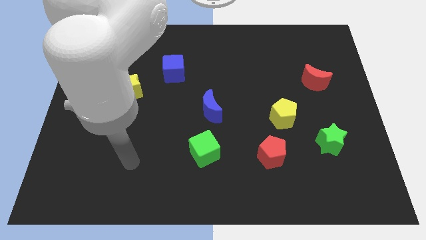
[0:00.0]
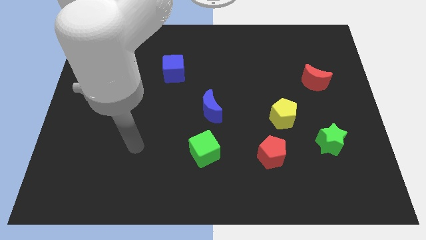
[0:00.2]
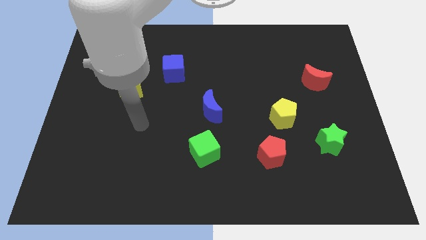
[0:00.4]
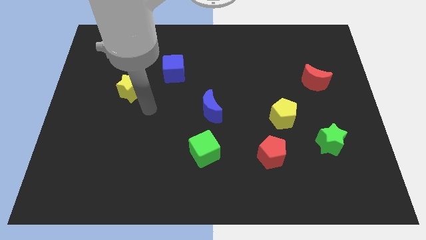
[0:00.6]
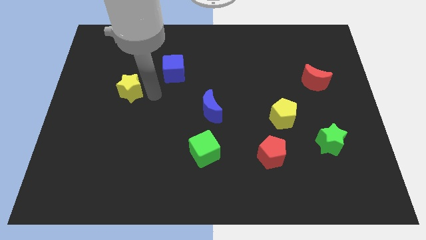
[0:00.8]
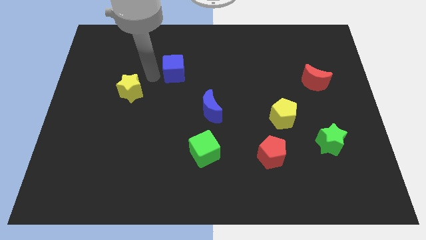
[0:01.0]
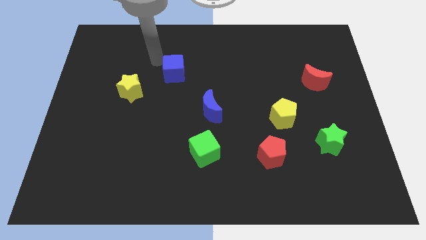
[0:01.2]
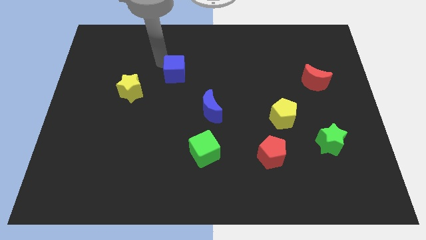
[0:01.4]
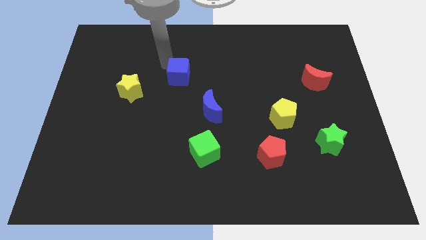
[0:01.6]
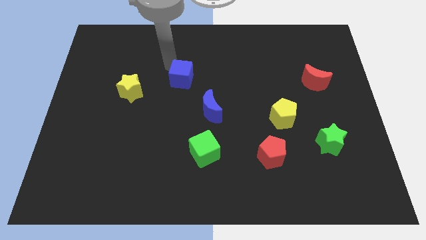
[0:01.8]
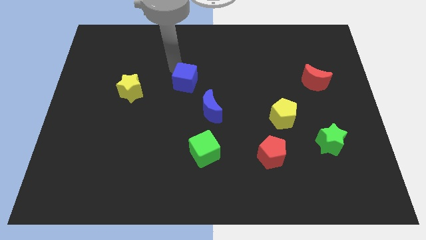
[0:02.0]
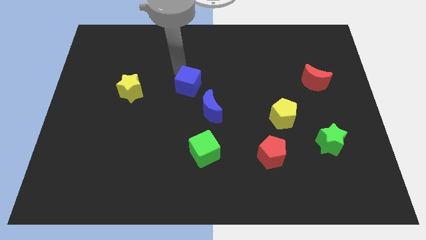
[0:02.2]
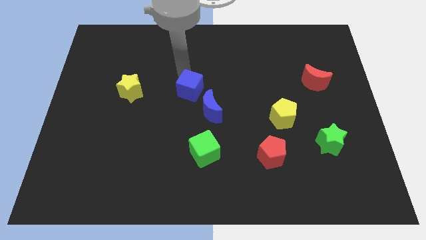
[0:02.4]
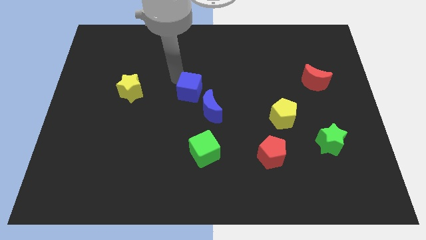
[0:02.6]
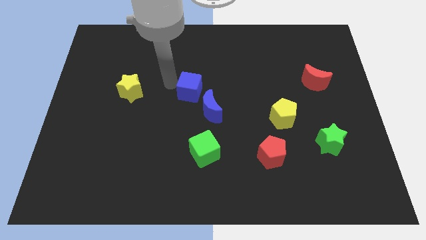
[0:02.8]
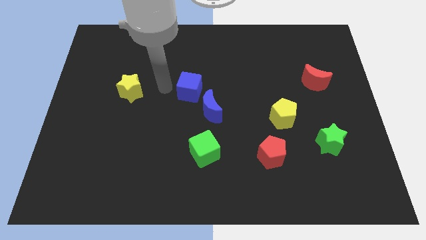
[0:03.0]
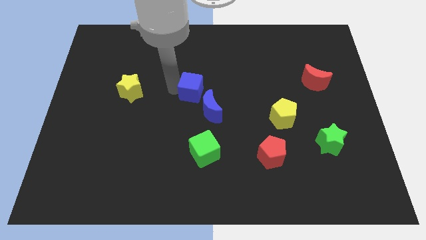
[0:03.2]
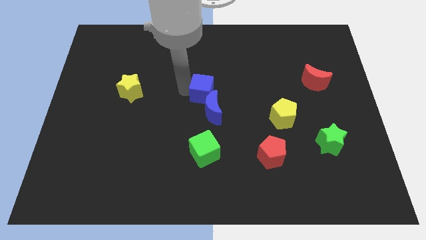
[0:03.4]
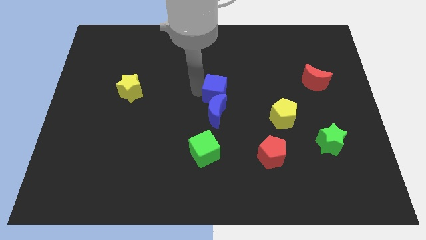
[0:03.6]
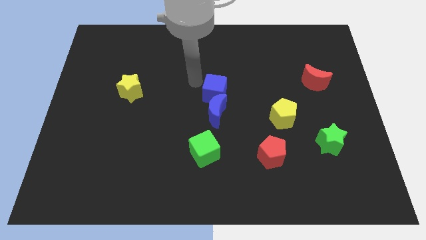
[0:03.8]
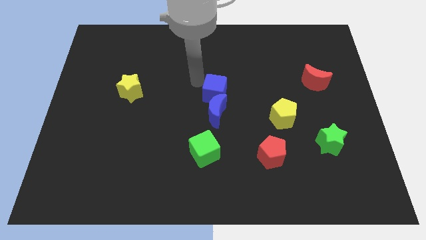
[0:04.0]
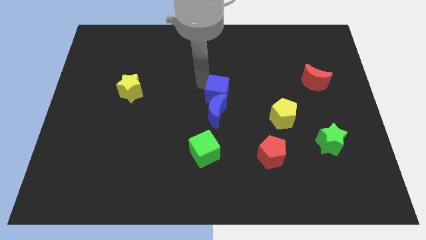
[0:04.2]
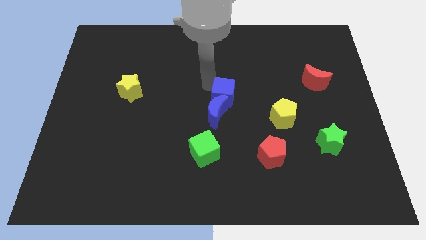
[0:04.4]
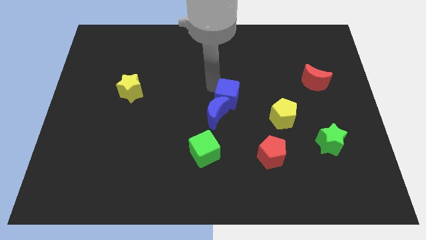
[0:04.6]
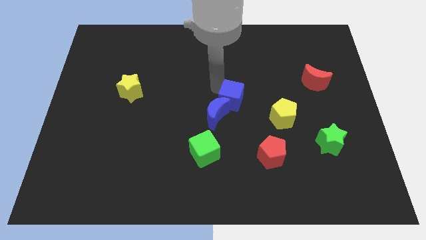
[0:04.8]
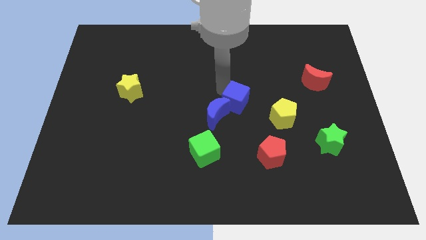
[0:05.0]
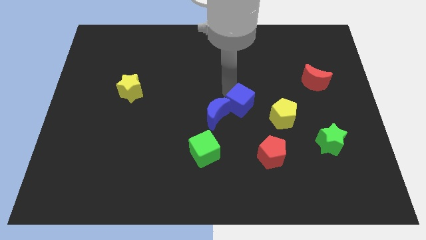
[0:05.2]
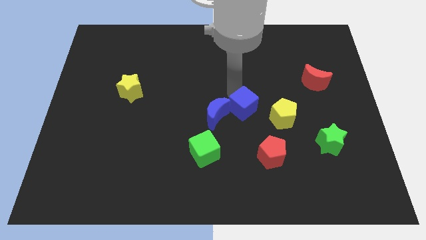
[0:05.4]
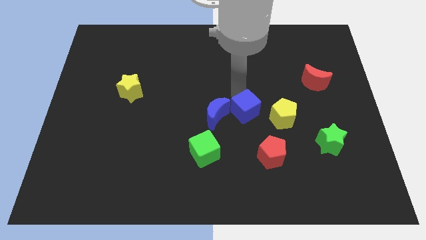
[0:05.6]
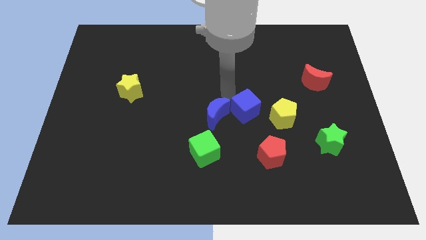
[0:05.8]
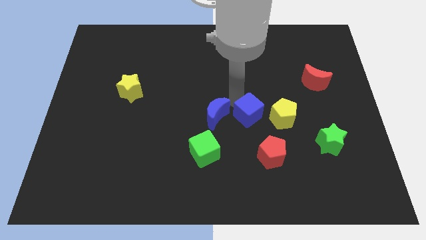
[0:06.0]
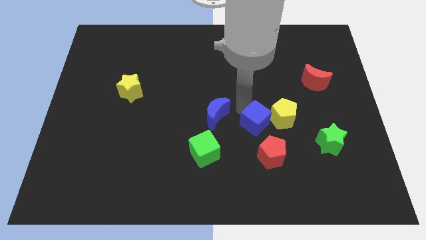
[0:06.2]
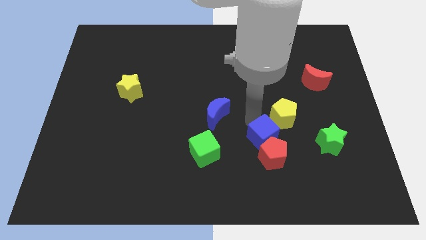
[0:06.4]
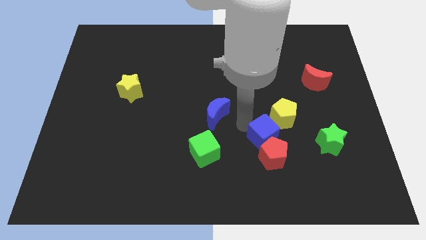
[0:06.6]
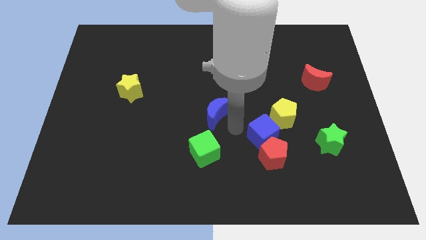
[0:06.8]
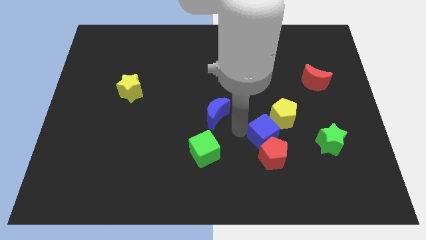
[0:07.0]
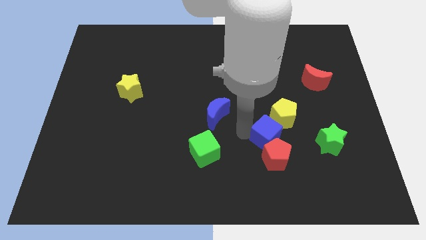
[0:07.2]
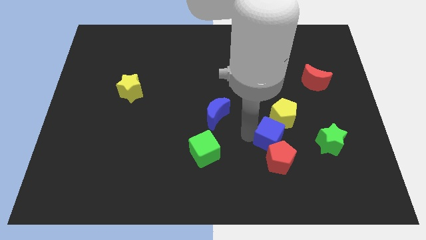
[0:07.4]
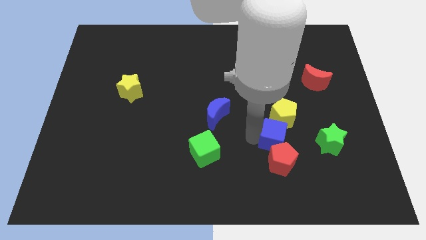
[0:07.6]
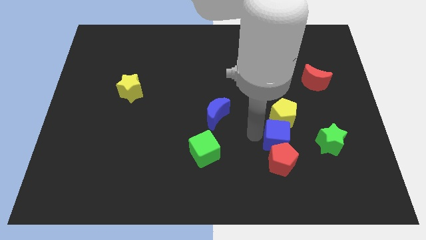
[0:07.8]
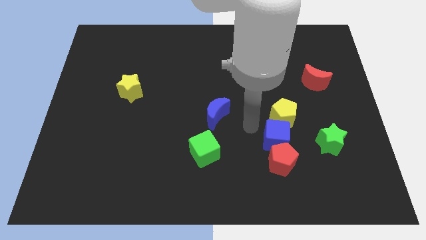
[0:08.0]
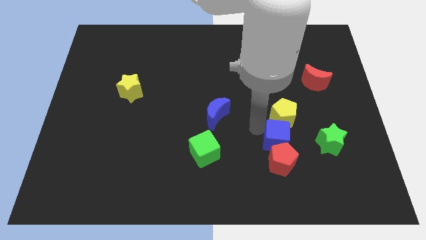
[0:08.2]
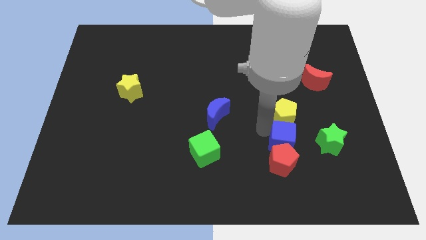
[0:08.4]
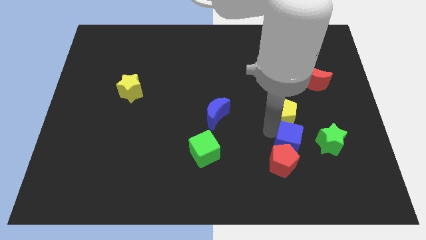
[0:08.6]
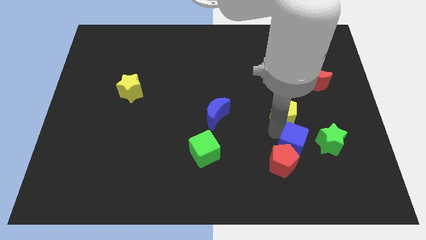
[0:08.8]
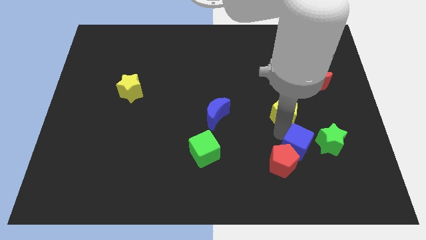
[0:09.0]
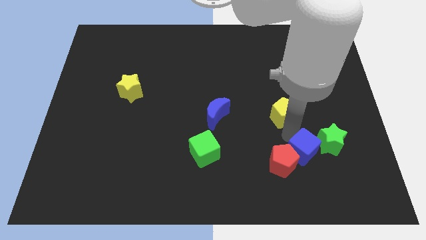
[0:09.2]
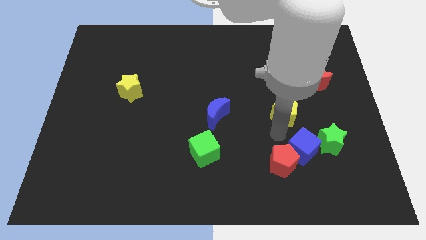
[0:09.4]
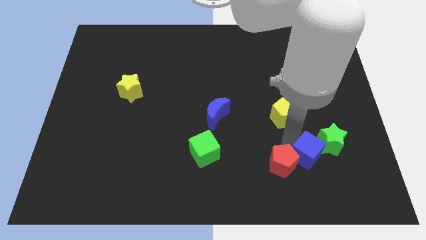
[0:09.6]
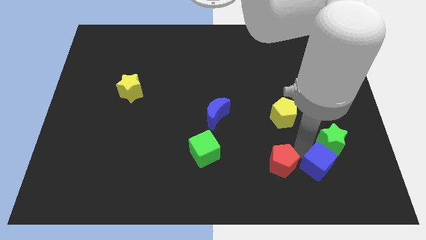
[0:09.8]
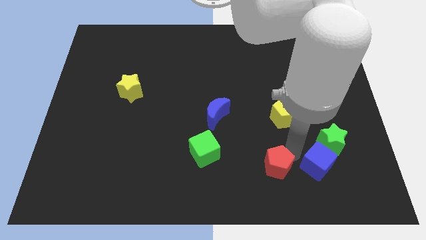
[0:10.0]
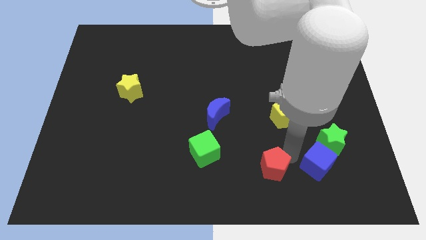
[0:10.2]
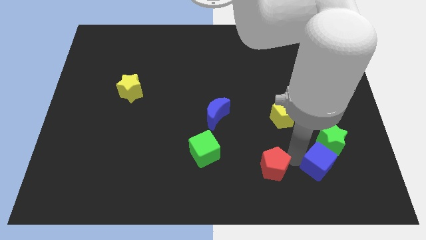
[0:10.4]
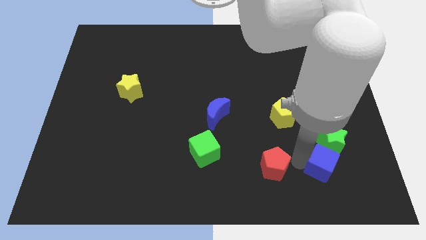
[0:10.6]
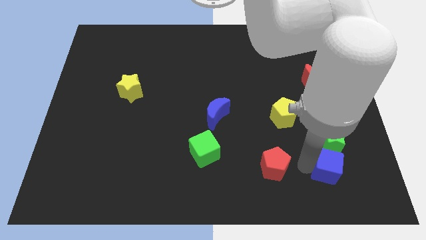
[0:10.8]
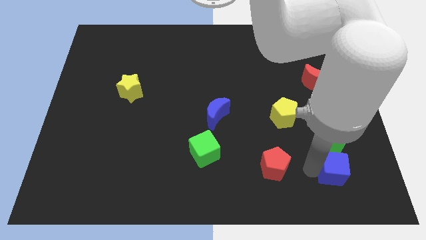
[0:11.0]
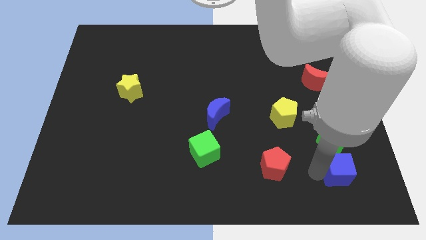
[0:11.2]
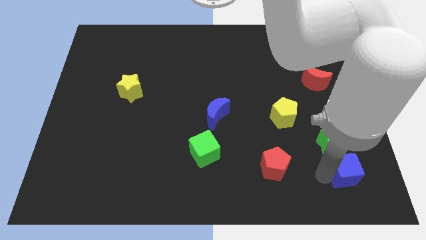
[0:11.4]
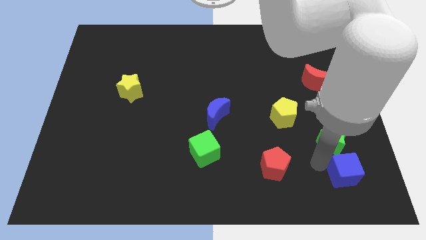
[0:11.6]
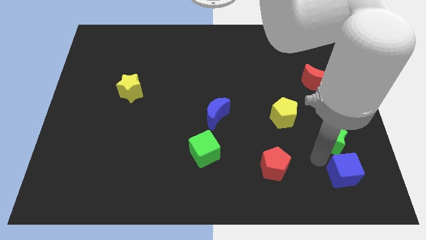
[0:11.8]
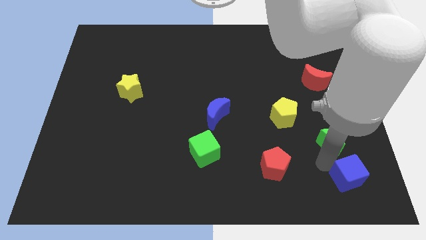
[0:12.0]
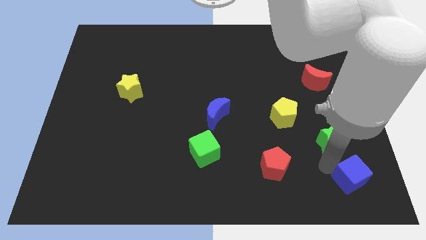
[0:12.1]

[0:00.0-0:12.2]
move the blue cube to the bottom right

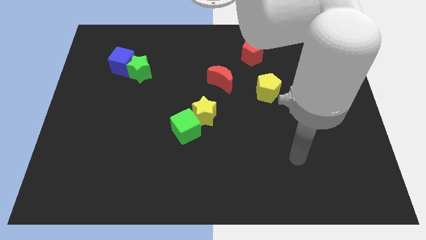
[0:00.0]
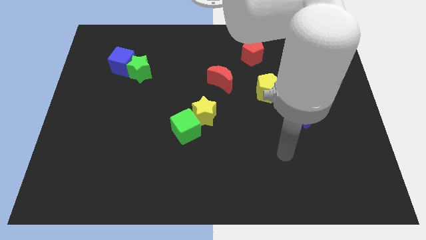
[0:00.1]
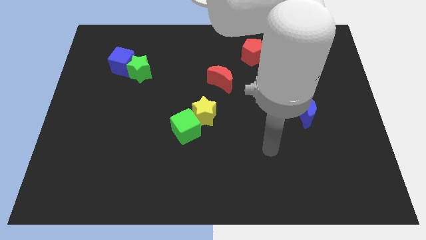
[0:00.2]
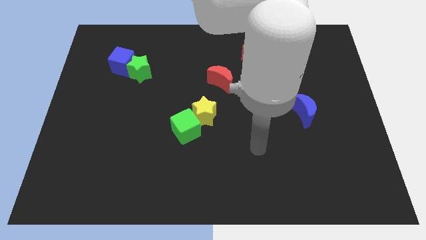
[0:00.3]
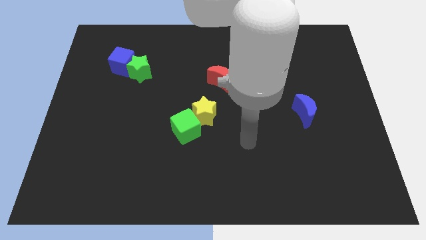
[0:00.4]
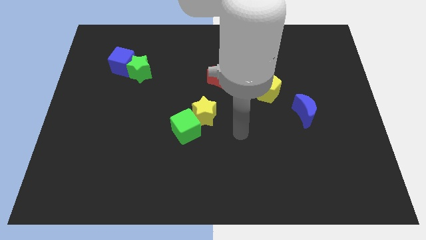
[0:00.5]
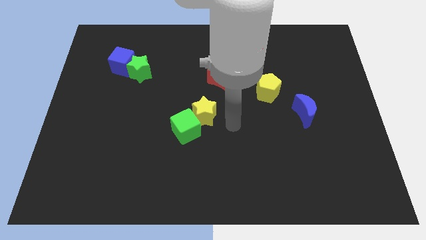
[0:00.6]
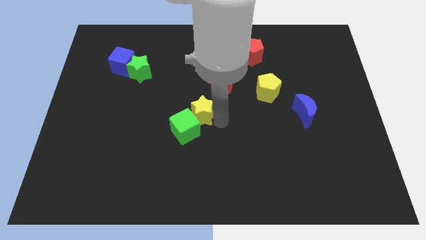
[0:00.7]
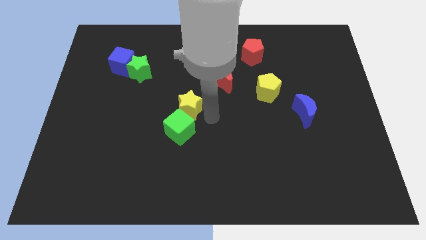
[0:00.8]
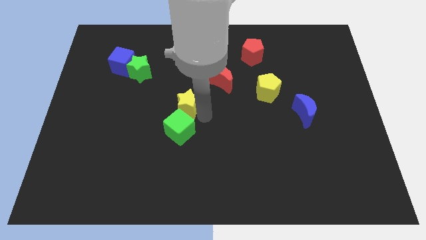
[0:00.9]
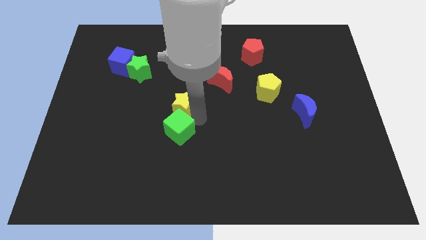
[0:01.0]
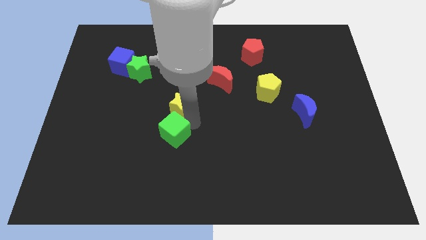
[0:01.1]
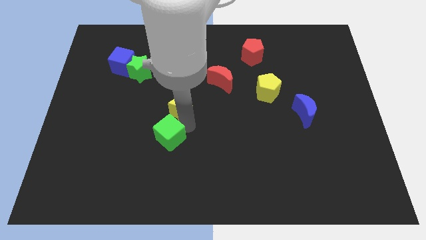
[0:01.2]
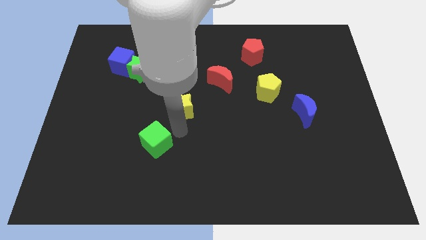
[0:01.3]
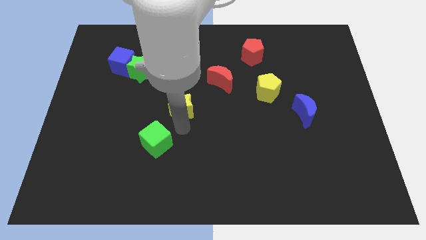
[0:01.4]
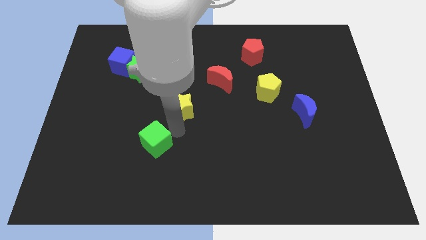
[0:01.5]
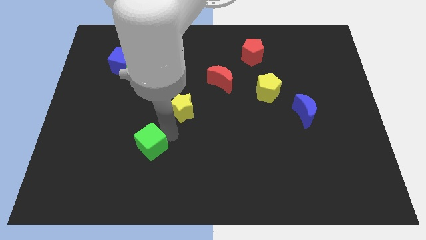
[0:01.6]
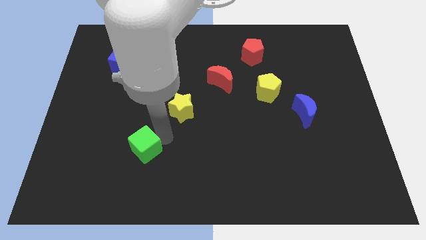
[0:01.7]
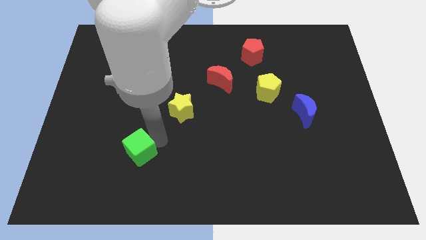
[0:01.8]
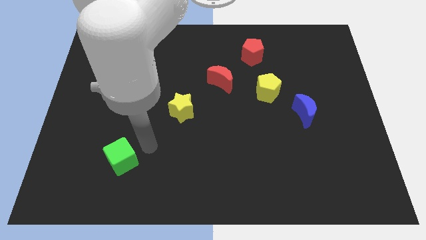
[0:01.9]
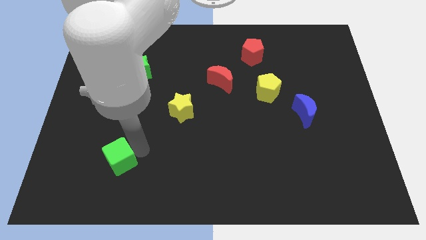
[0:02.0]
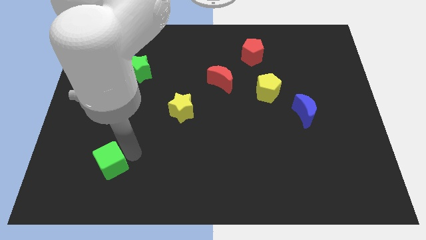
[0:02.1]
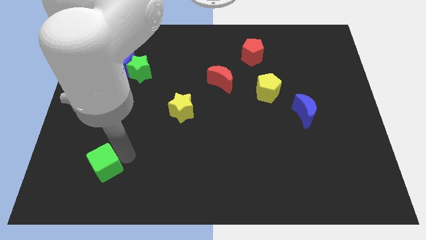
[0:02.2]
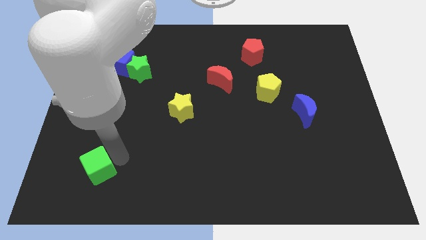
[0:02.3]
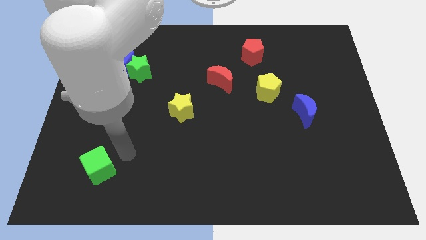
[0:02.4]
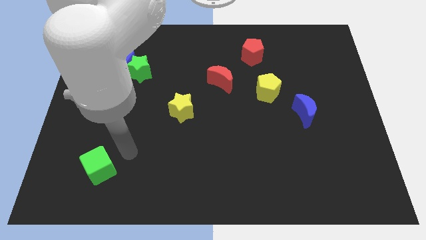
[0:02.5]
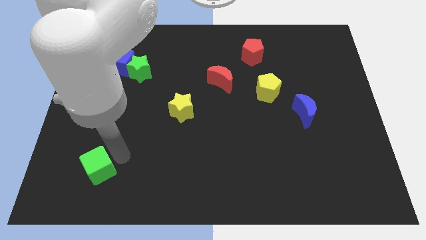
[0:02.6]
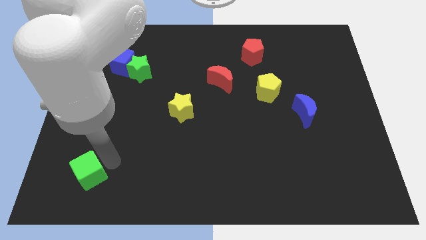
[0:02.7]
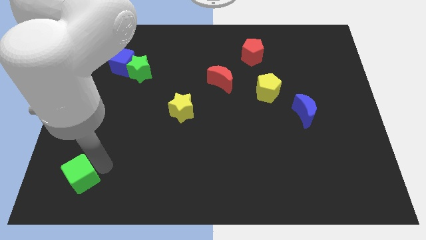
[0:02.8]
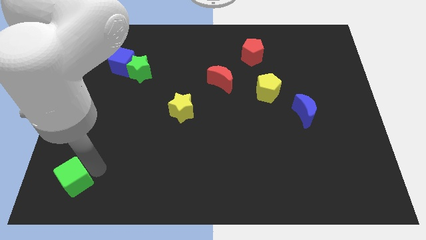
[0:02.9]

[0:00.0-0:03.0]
push the green cube to the bottom left
